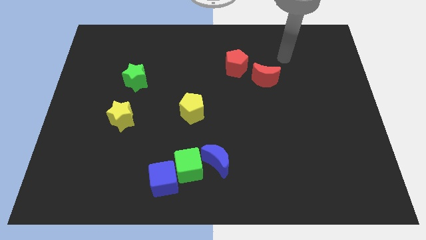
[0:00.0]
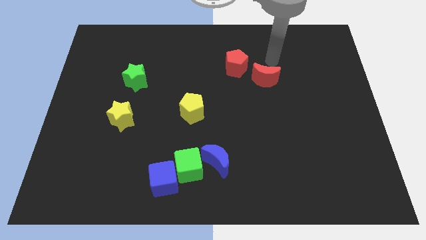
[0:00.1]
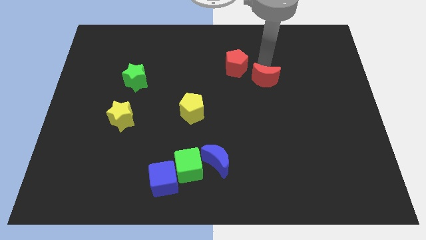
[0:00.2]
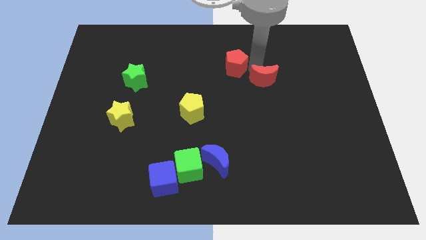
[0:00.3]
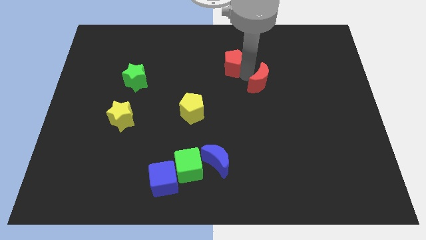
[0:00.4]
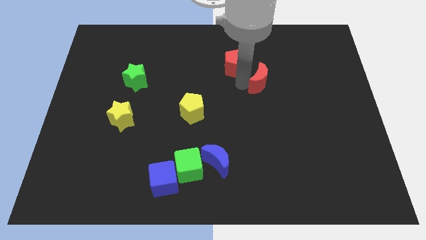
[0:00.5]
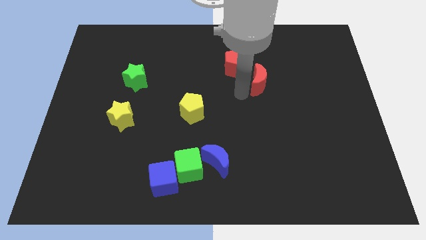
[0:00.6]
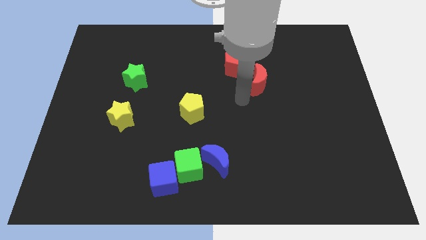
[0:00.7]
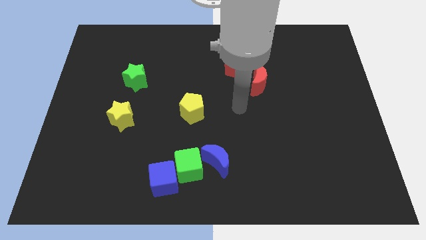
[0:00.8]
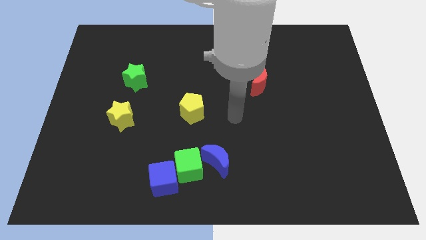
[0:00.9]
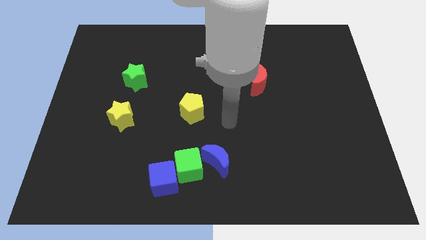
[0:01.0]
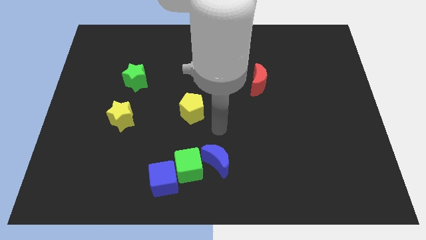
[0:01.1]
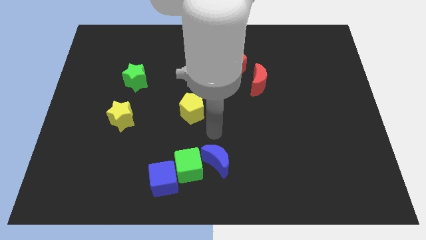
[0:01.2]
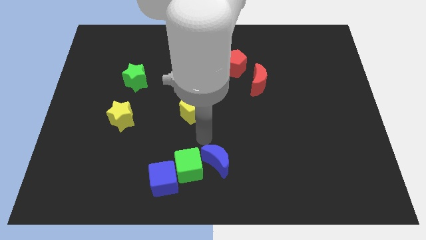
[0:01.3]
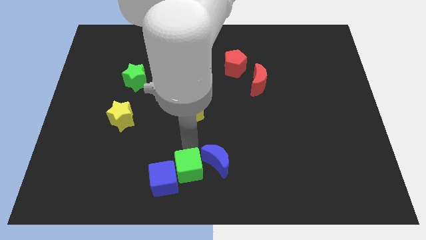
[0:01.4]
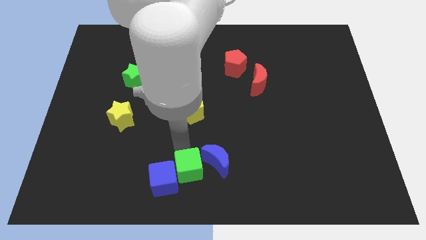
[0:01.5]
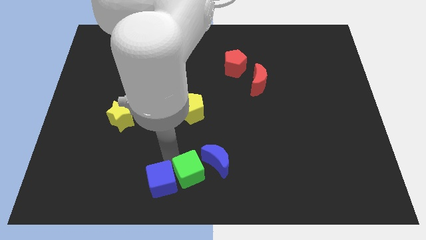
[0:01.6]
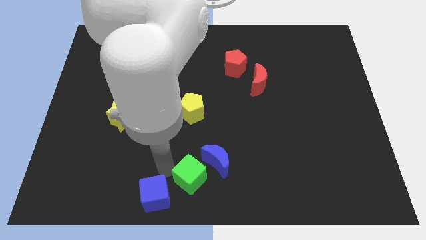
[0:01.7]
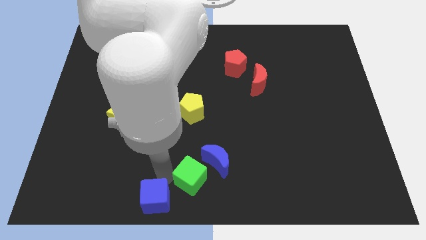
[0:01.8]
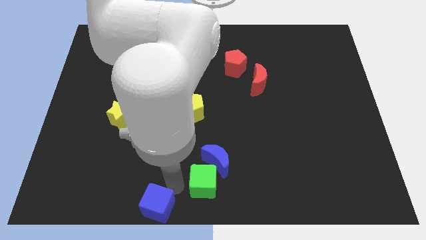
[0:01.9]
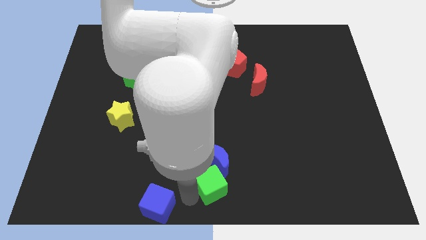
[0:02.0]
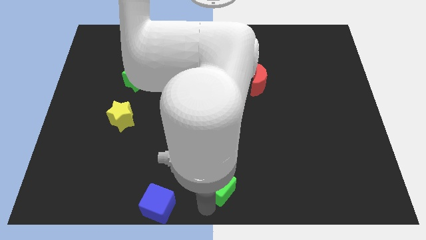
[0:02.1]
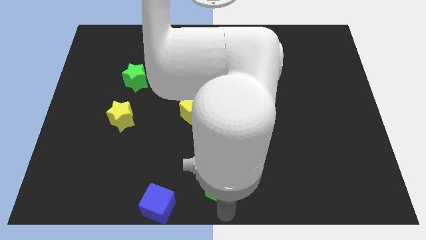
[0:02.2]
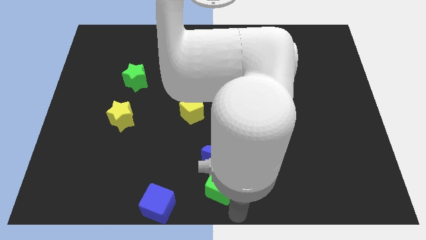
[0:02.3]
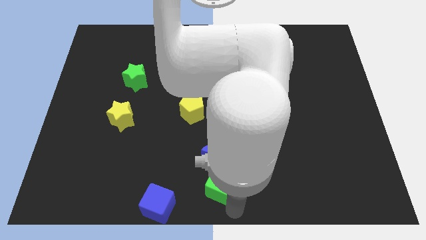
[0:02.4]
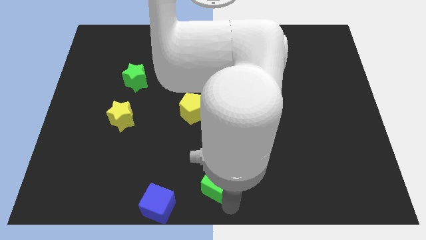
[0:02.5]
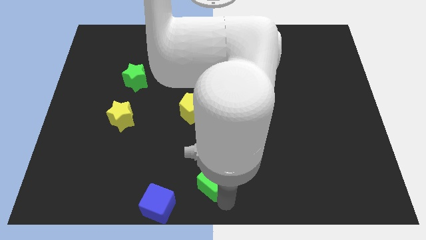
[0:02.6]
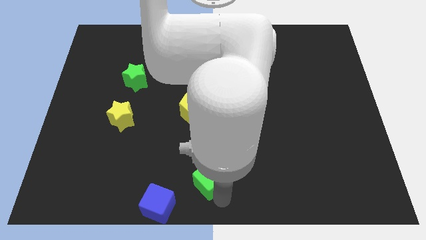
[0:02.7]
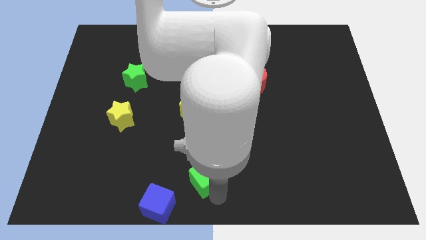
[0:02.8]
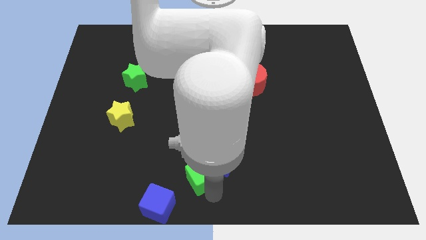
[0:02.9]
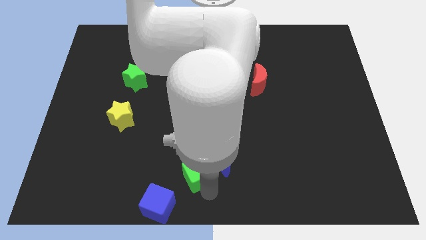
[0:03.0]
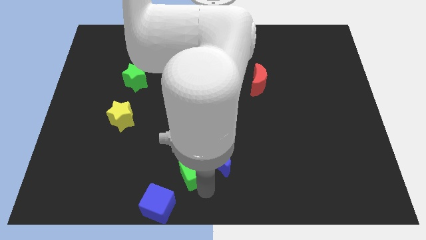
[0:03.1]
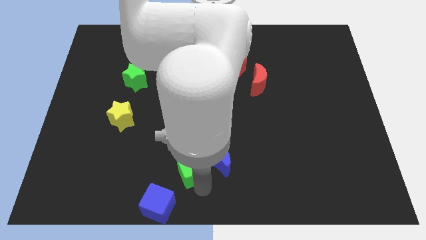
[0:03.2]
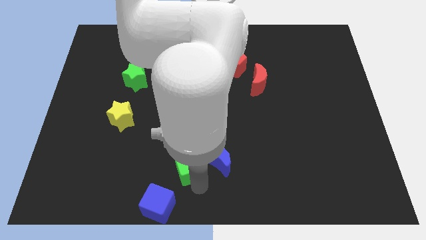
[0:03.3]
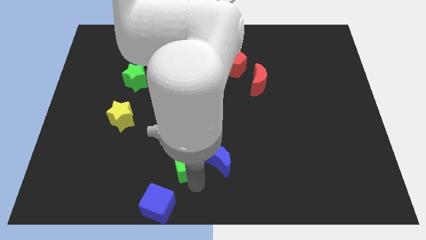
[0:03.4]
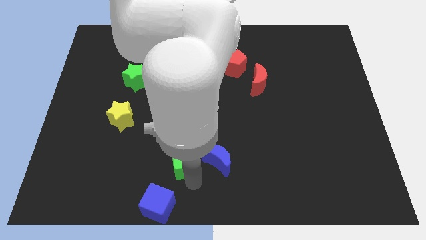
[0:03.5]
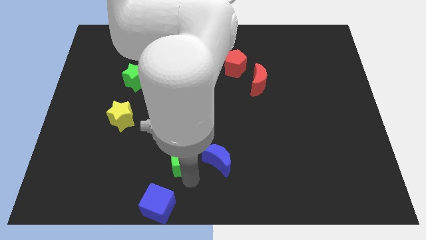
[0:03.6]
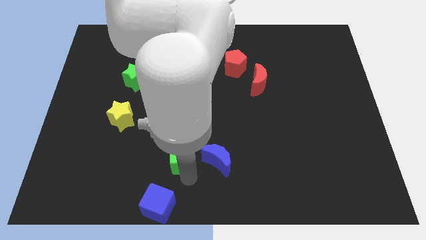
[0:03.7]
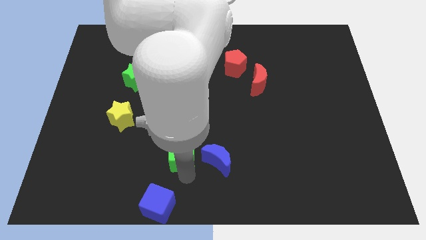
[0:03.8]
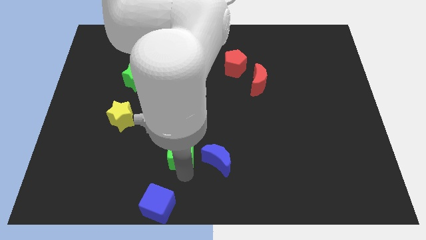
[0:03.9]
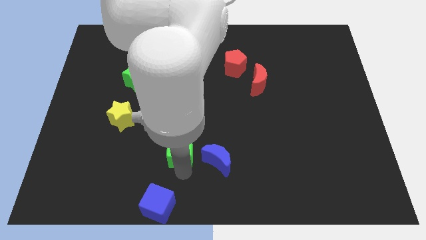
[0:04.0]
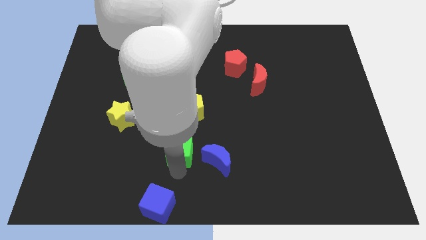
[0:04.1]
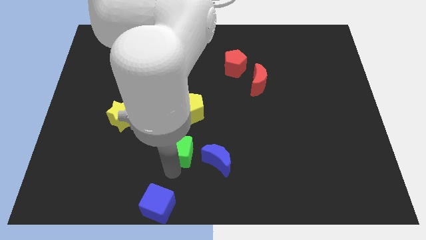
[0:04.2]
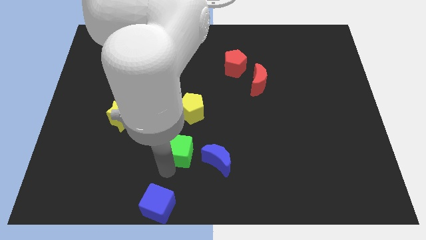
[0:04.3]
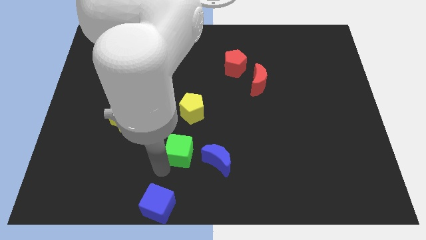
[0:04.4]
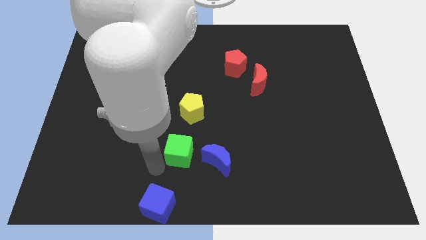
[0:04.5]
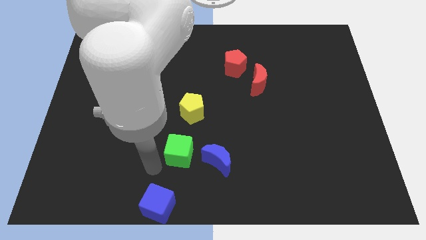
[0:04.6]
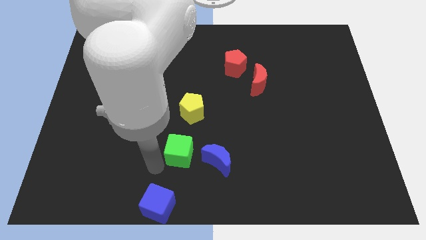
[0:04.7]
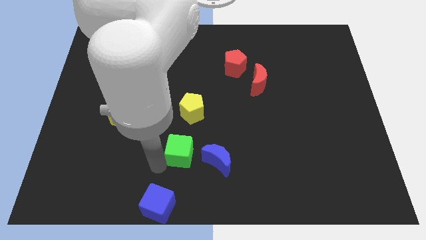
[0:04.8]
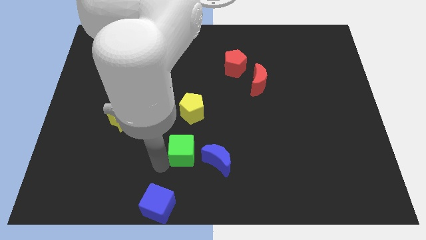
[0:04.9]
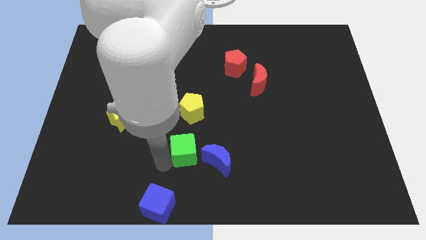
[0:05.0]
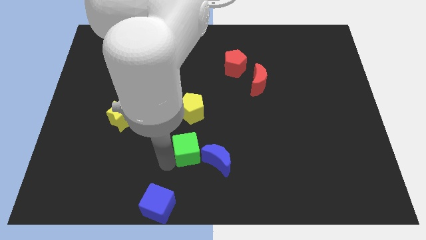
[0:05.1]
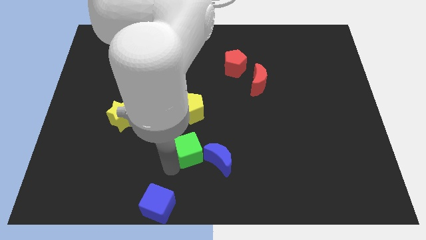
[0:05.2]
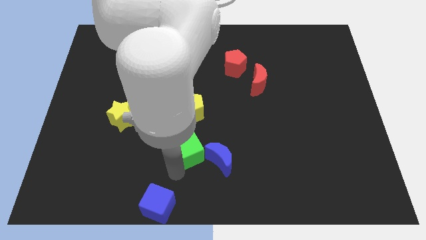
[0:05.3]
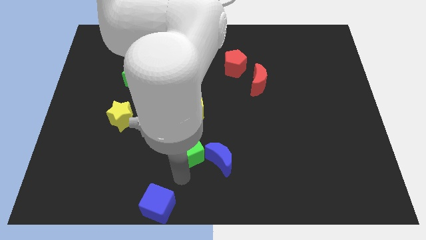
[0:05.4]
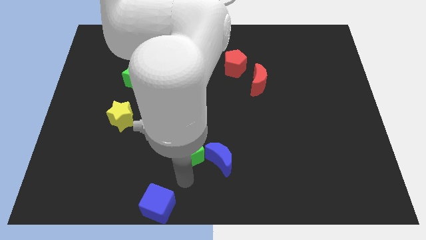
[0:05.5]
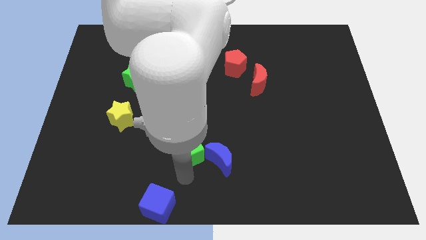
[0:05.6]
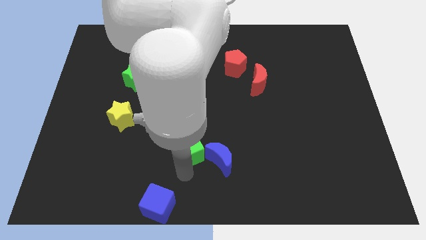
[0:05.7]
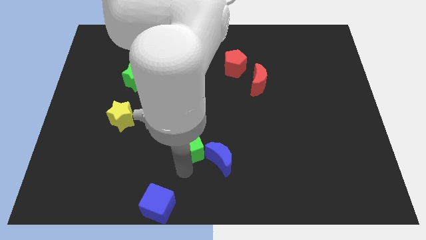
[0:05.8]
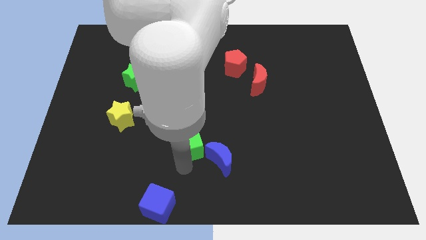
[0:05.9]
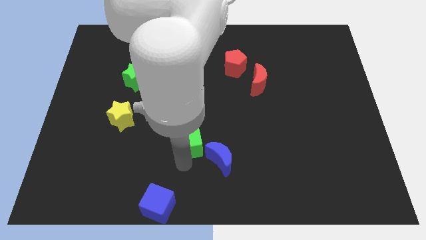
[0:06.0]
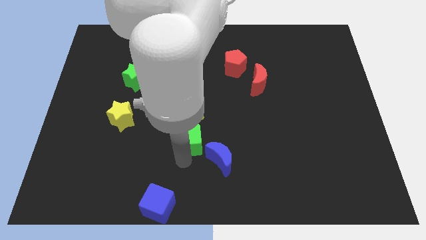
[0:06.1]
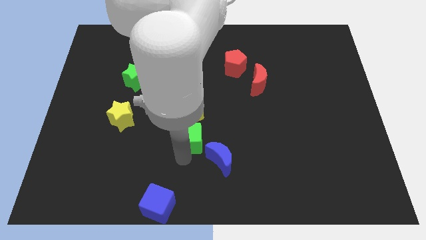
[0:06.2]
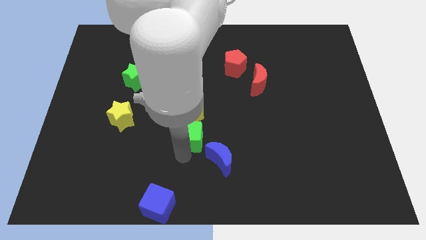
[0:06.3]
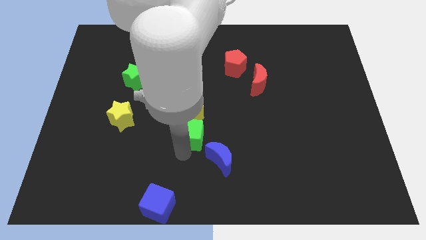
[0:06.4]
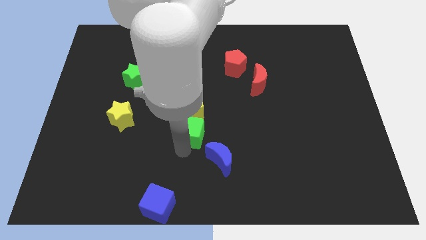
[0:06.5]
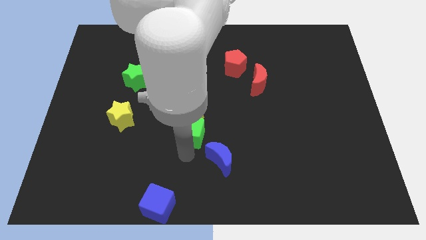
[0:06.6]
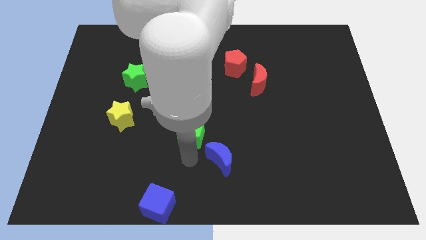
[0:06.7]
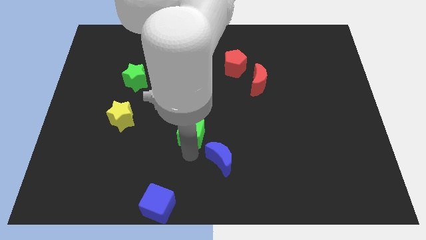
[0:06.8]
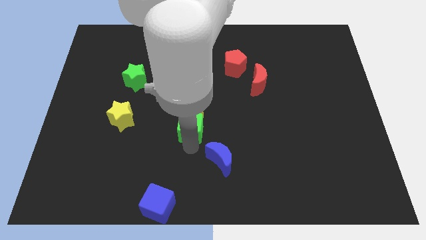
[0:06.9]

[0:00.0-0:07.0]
slide the green cube towards the yellow pentagon
